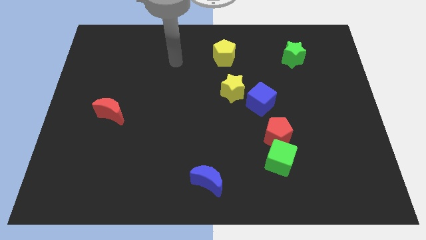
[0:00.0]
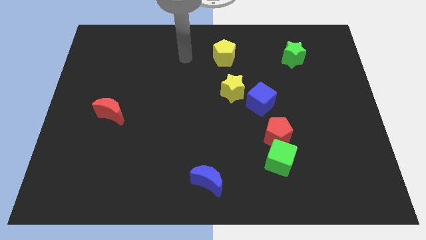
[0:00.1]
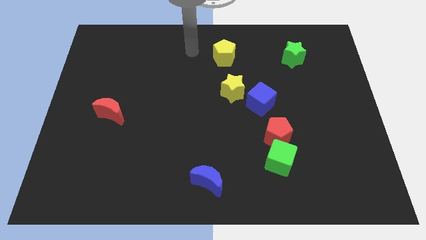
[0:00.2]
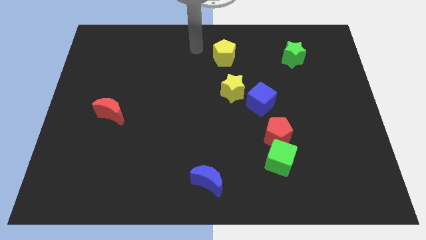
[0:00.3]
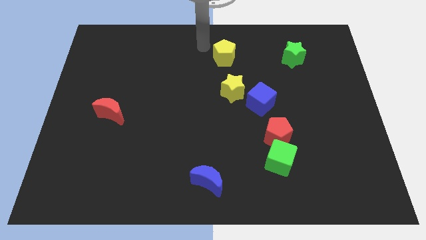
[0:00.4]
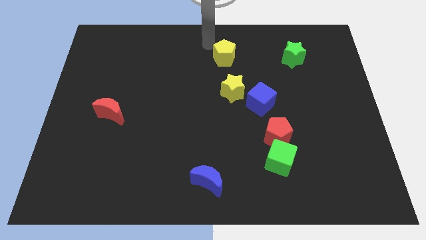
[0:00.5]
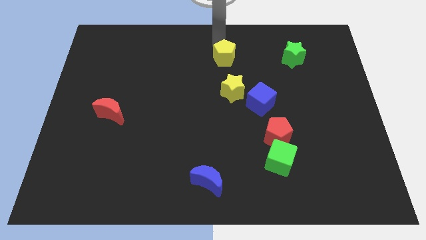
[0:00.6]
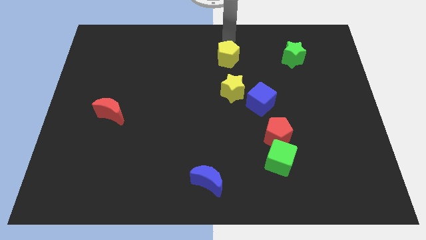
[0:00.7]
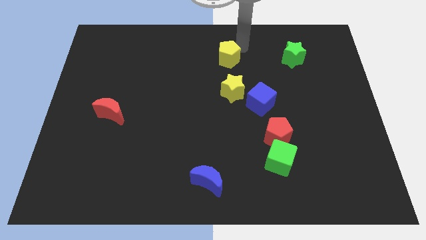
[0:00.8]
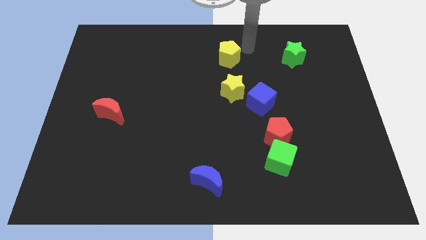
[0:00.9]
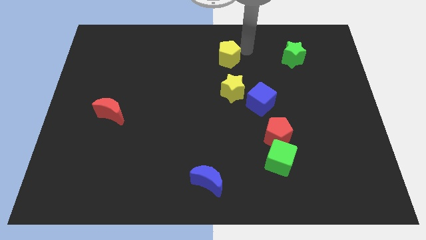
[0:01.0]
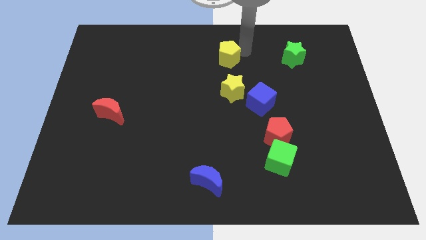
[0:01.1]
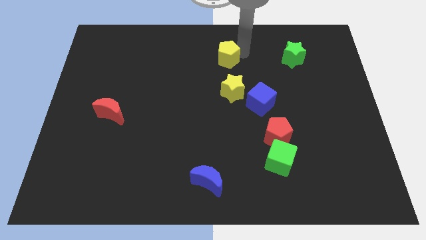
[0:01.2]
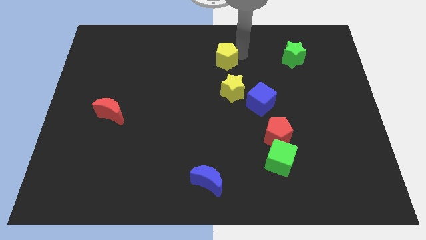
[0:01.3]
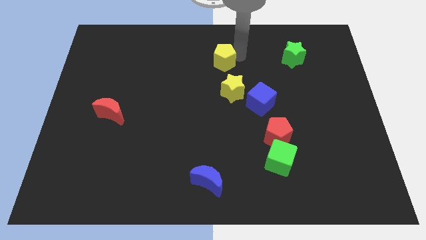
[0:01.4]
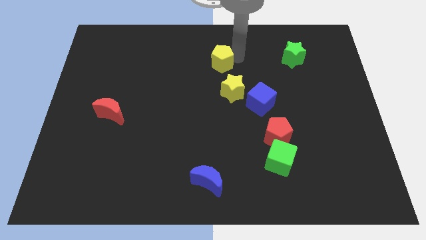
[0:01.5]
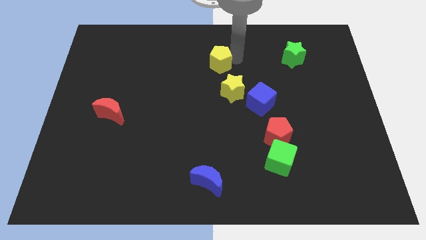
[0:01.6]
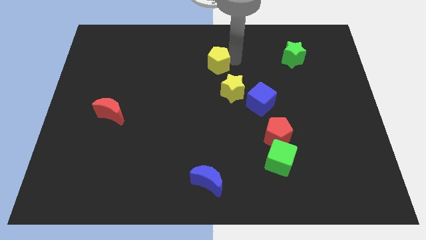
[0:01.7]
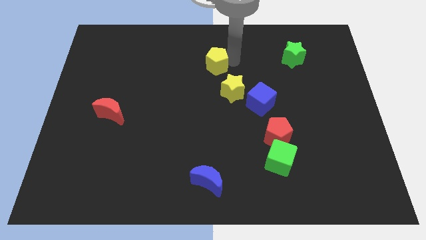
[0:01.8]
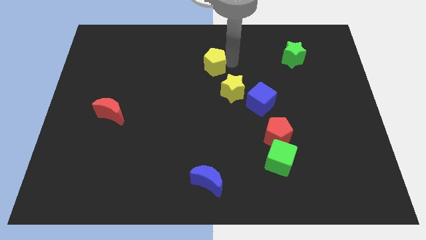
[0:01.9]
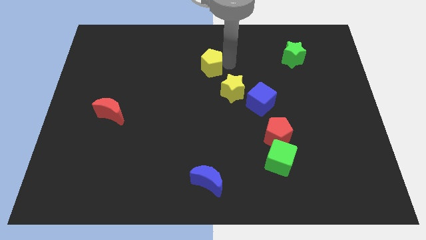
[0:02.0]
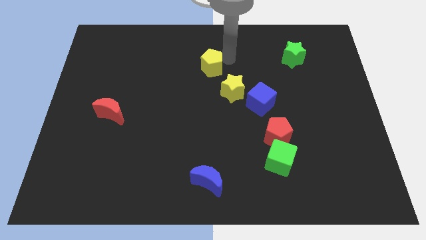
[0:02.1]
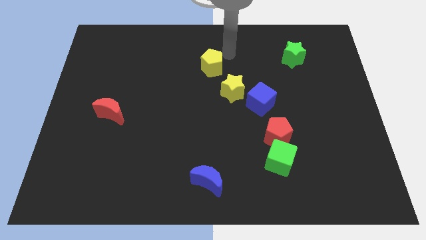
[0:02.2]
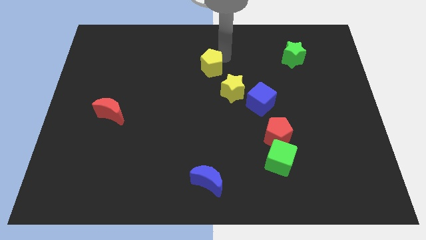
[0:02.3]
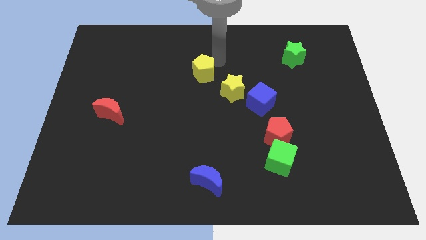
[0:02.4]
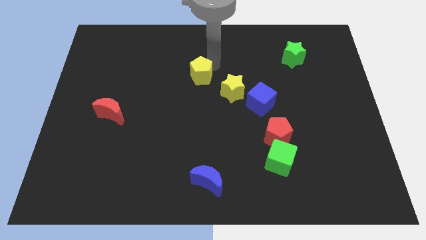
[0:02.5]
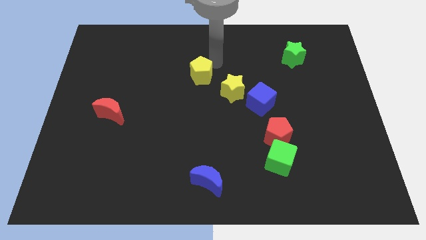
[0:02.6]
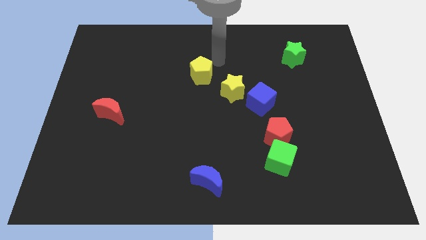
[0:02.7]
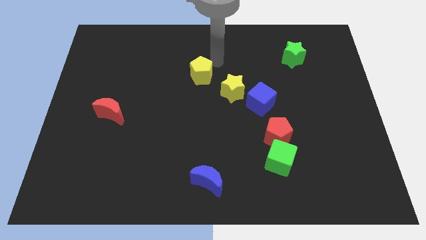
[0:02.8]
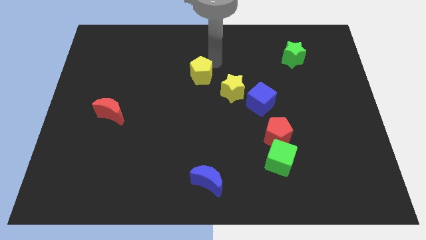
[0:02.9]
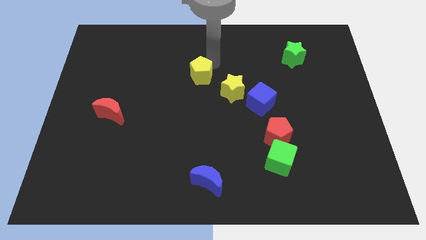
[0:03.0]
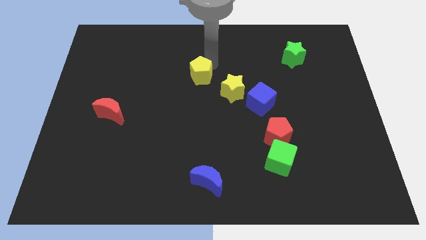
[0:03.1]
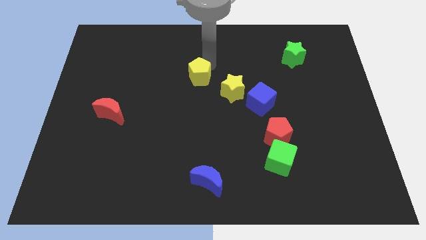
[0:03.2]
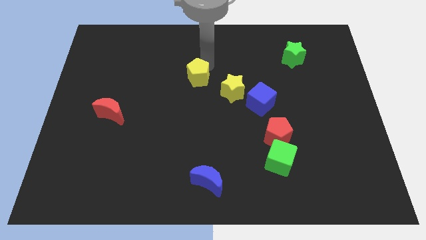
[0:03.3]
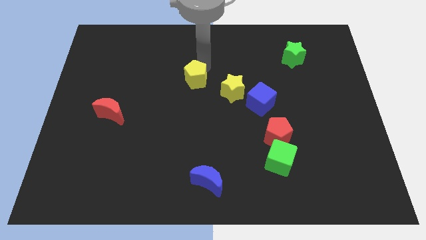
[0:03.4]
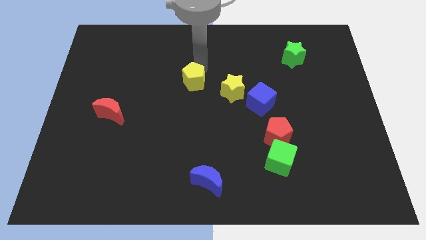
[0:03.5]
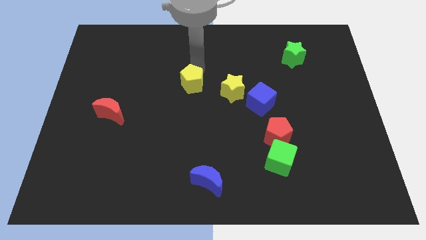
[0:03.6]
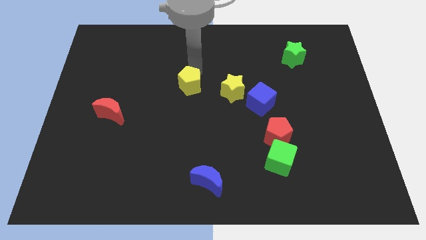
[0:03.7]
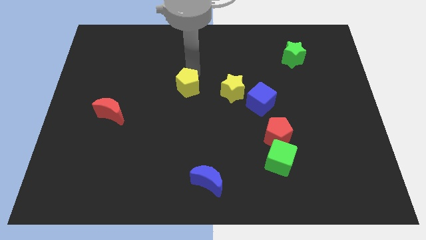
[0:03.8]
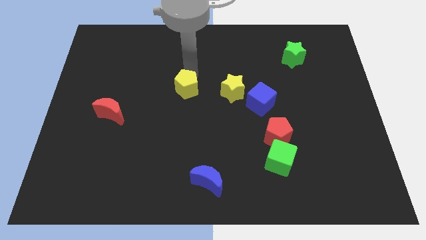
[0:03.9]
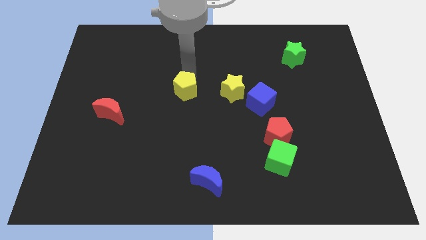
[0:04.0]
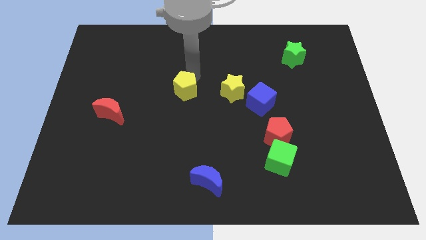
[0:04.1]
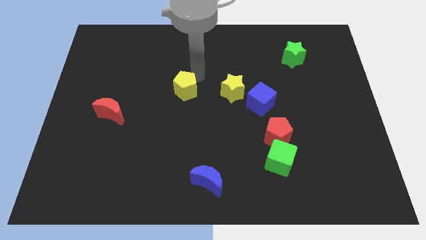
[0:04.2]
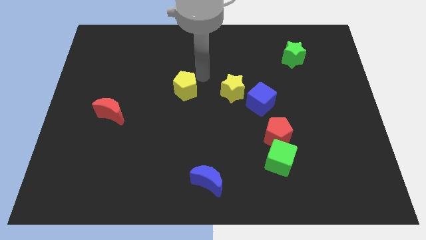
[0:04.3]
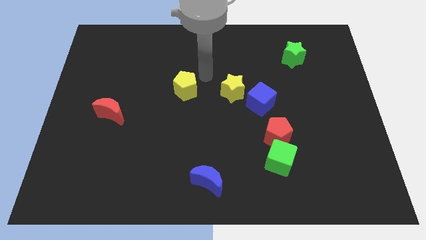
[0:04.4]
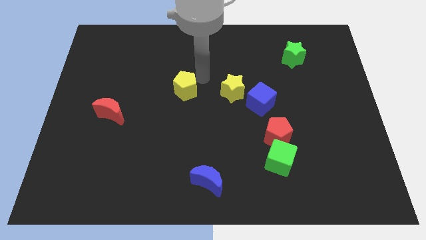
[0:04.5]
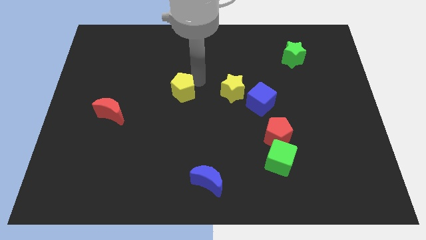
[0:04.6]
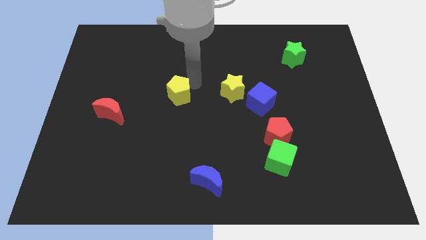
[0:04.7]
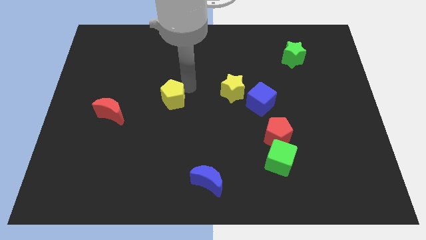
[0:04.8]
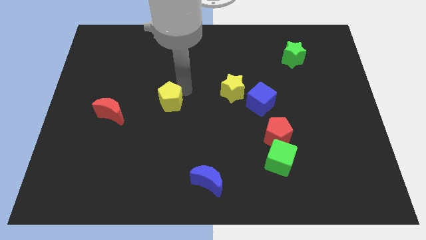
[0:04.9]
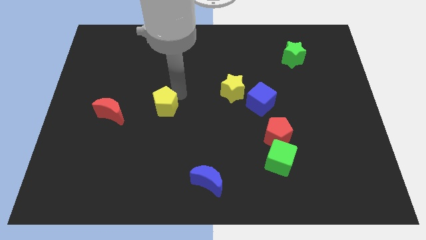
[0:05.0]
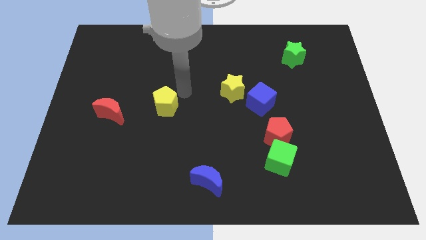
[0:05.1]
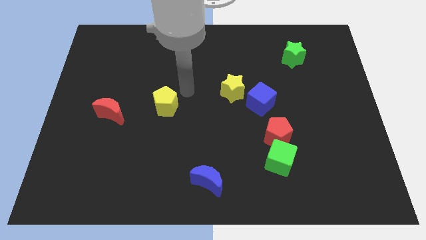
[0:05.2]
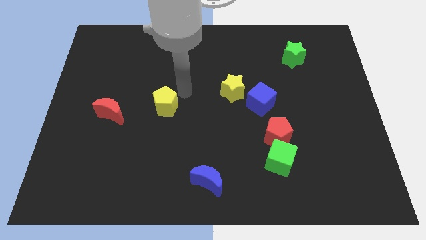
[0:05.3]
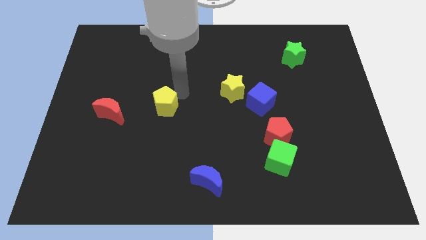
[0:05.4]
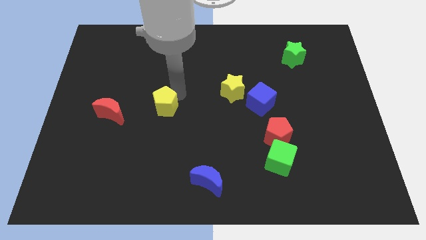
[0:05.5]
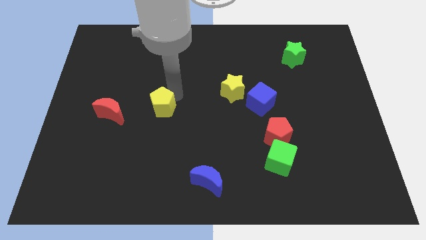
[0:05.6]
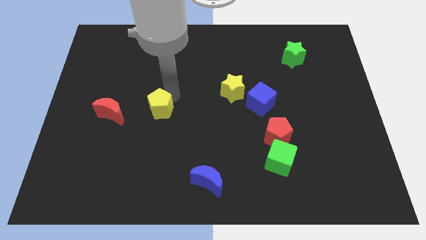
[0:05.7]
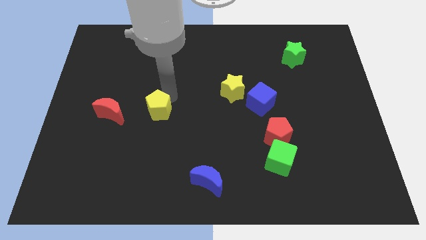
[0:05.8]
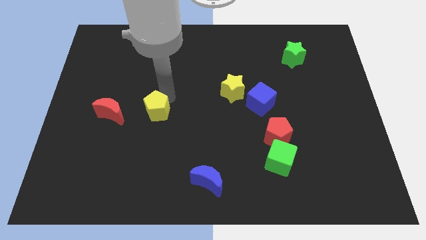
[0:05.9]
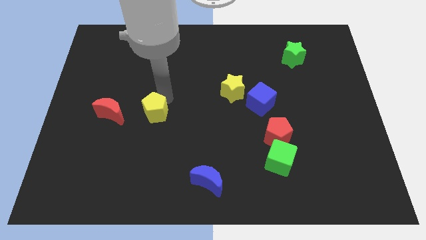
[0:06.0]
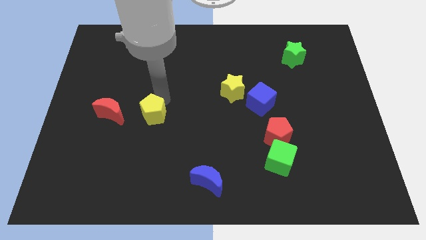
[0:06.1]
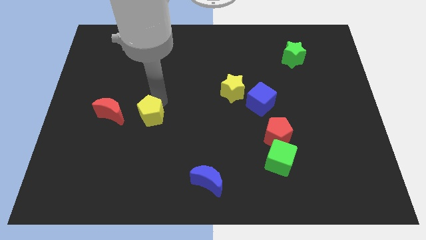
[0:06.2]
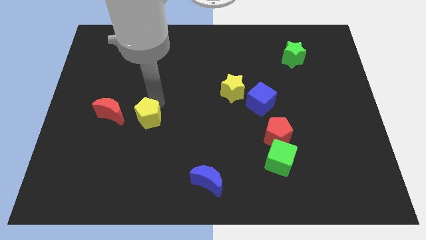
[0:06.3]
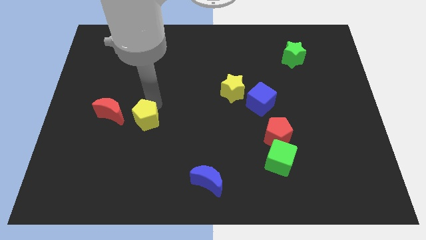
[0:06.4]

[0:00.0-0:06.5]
put the yellow pentagon to the bottom right of the red moon

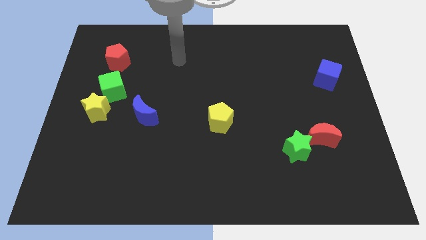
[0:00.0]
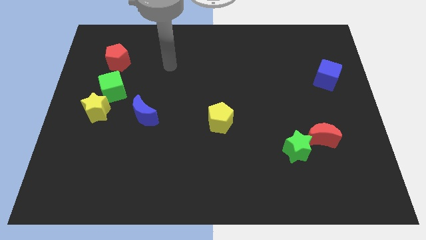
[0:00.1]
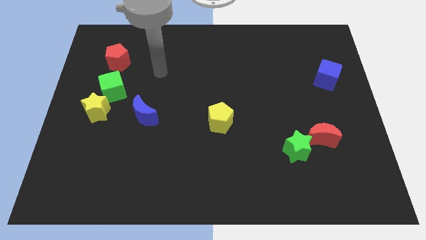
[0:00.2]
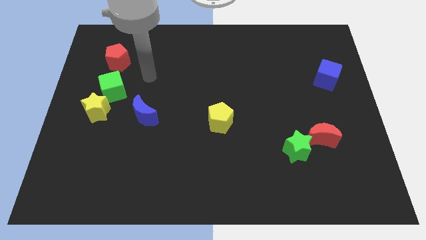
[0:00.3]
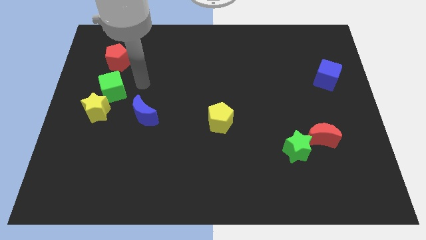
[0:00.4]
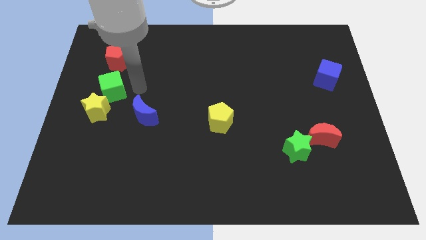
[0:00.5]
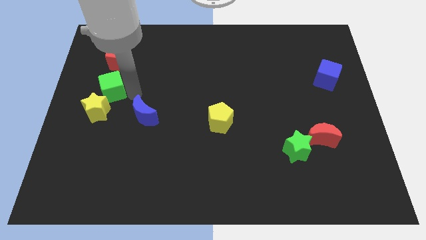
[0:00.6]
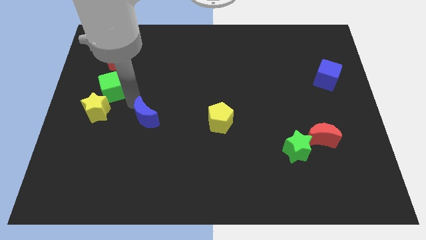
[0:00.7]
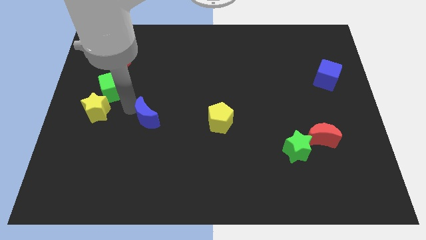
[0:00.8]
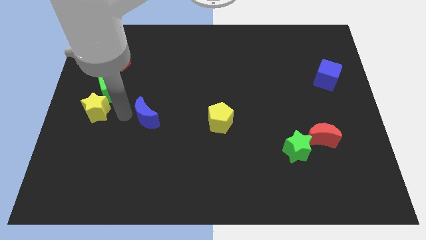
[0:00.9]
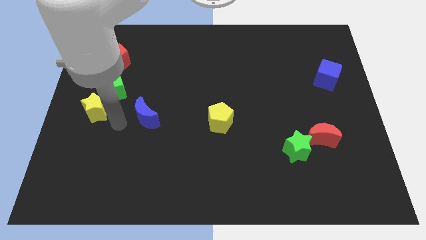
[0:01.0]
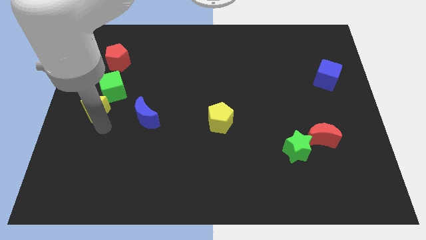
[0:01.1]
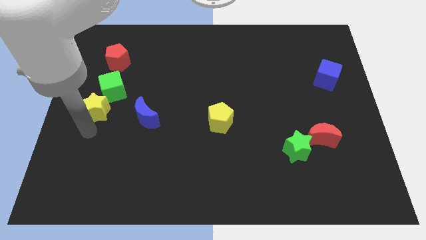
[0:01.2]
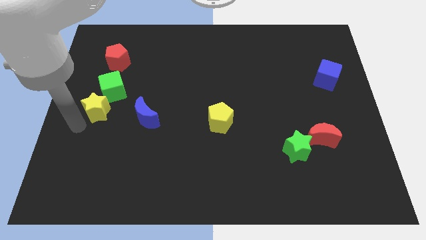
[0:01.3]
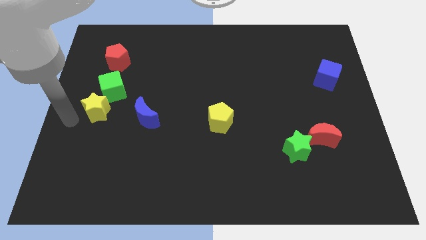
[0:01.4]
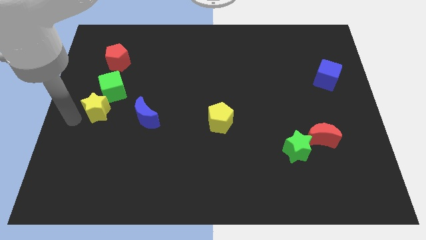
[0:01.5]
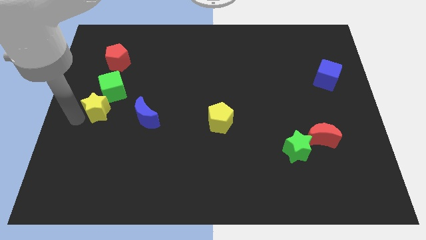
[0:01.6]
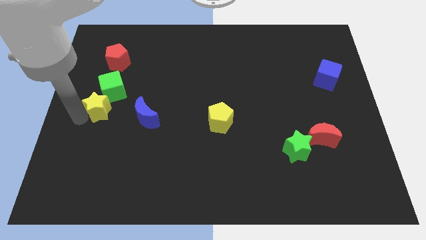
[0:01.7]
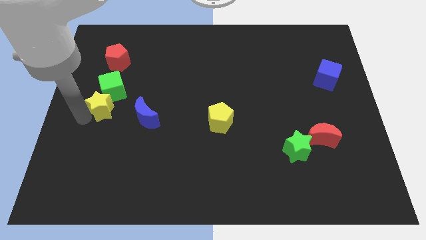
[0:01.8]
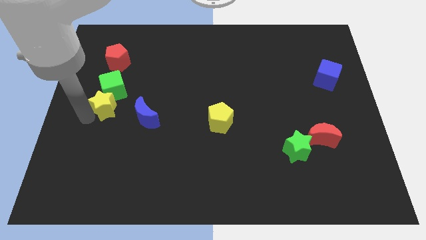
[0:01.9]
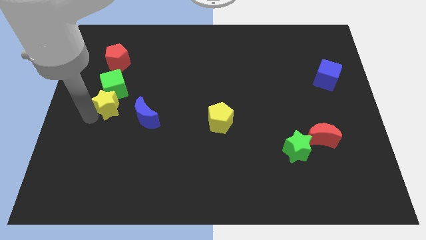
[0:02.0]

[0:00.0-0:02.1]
move the yellow star to the top left of the blue moon
